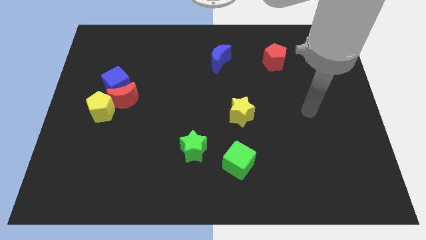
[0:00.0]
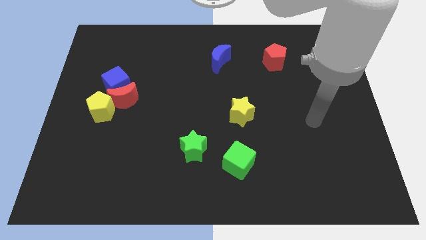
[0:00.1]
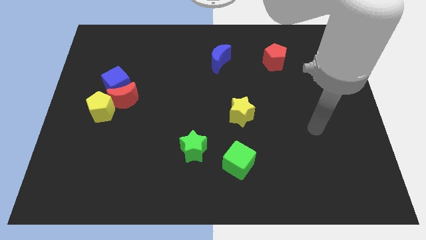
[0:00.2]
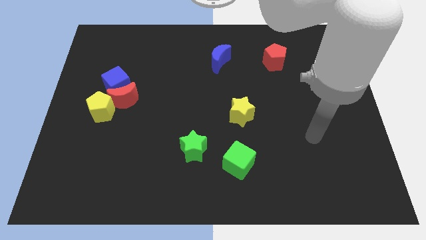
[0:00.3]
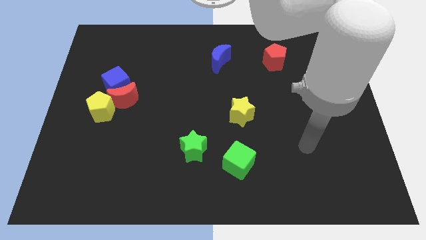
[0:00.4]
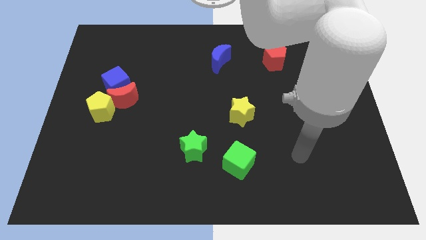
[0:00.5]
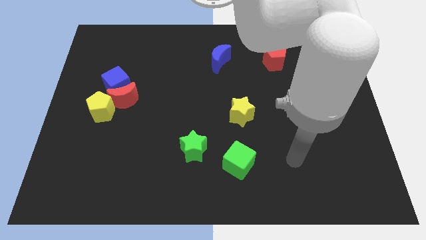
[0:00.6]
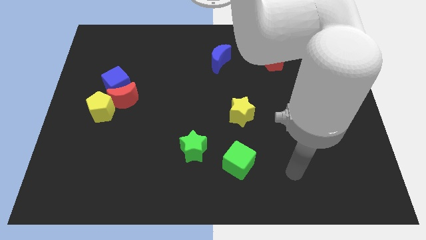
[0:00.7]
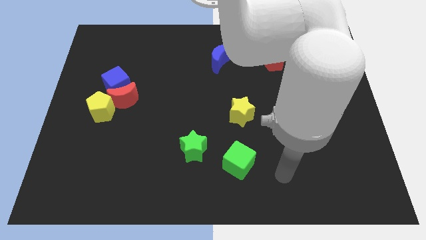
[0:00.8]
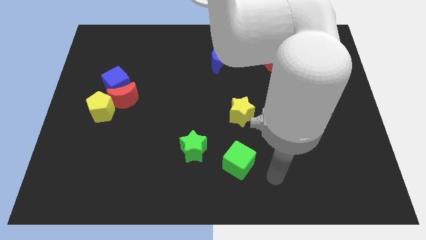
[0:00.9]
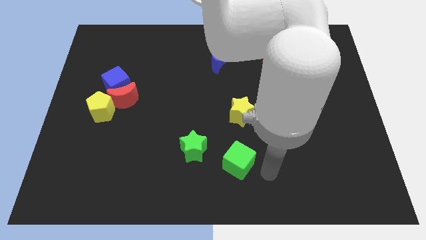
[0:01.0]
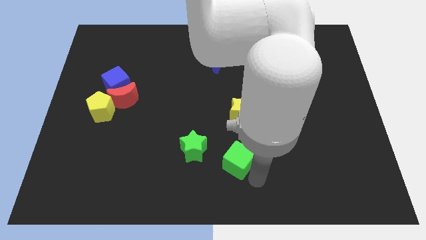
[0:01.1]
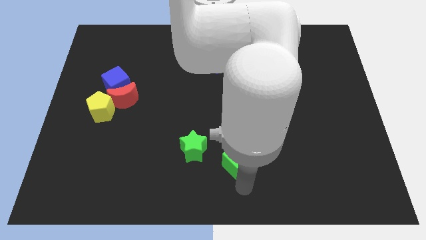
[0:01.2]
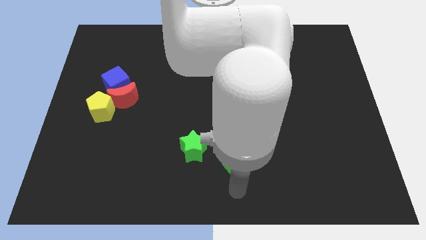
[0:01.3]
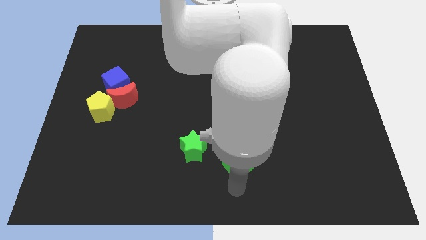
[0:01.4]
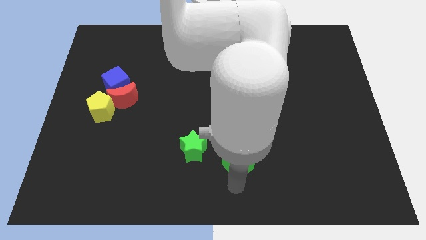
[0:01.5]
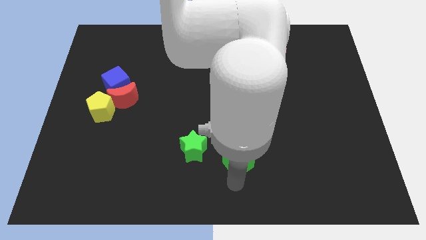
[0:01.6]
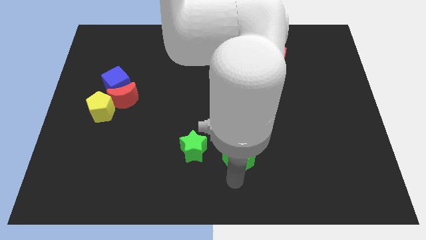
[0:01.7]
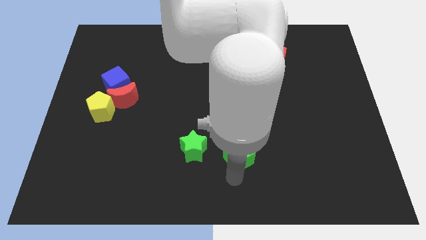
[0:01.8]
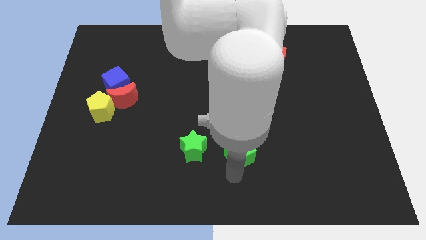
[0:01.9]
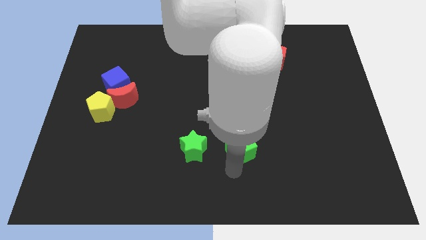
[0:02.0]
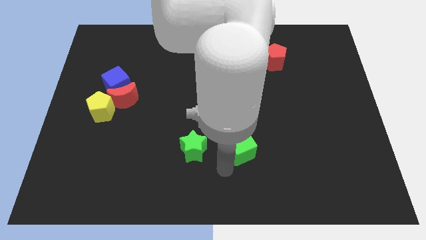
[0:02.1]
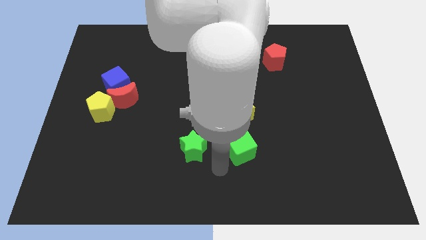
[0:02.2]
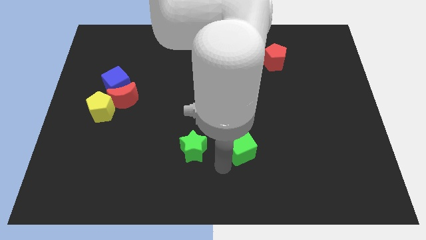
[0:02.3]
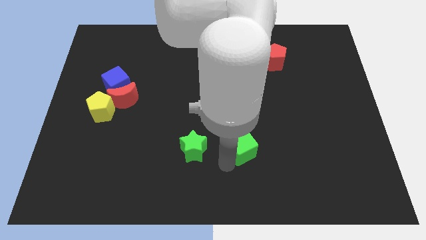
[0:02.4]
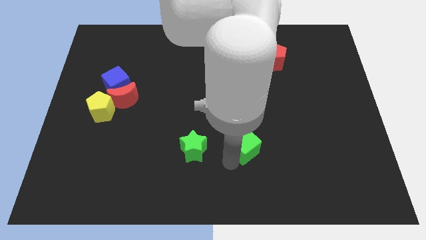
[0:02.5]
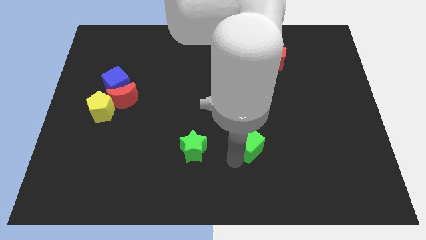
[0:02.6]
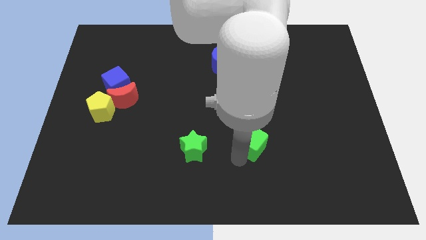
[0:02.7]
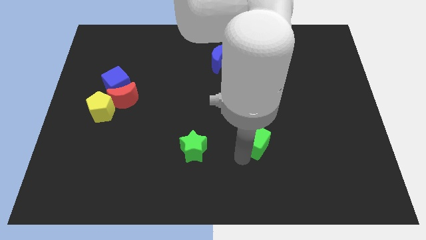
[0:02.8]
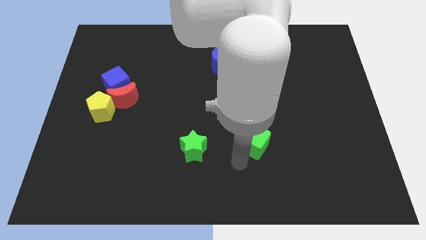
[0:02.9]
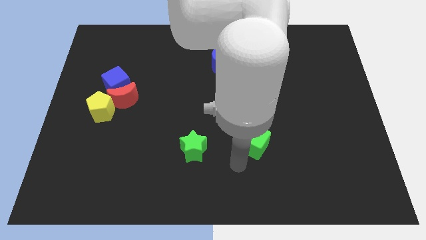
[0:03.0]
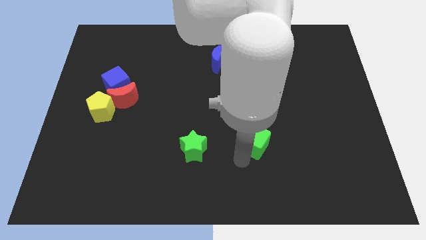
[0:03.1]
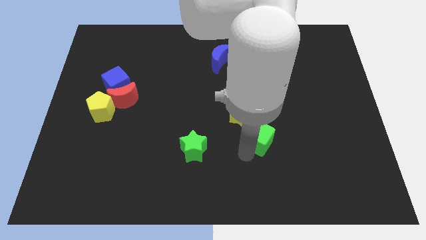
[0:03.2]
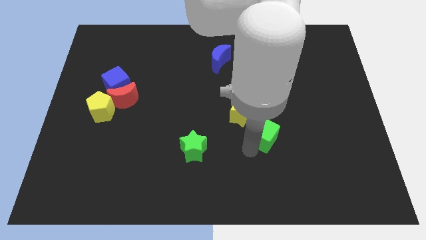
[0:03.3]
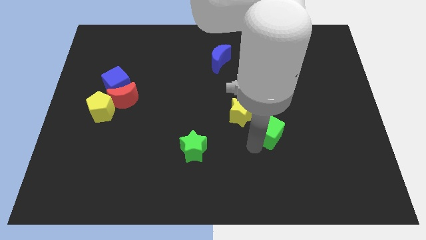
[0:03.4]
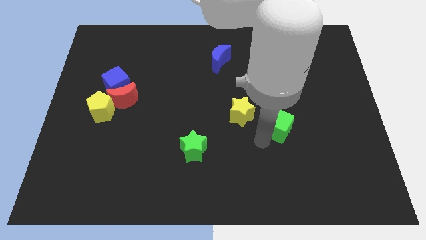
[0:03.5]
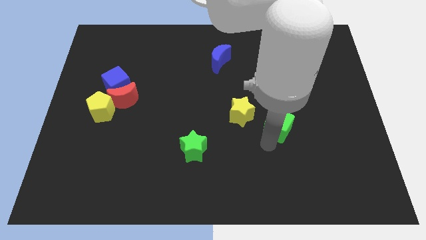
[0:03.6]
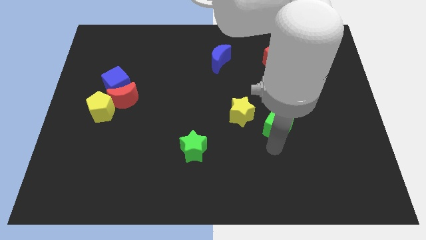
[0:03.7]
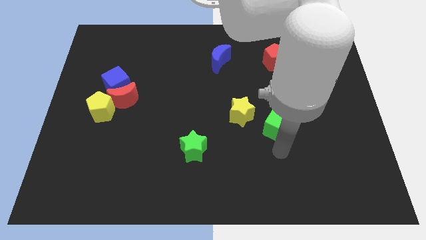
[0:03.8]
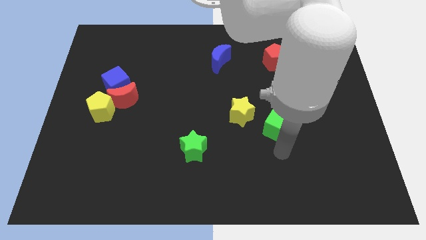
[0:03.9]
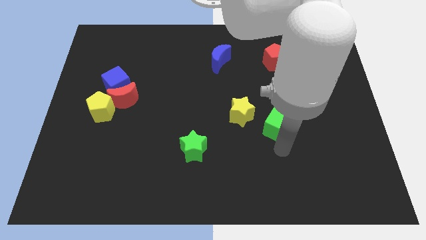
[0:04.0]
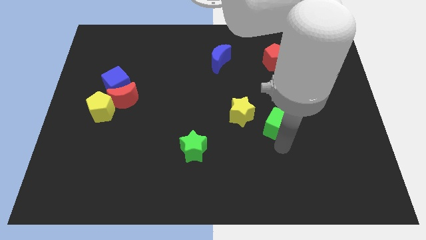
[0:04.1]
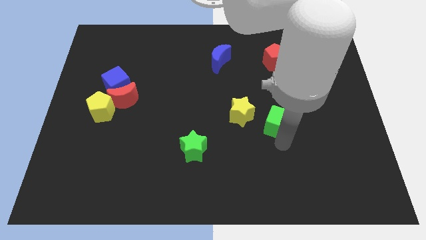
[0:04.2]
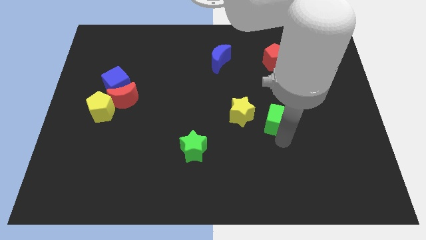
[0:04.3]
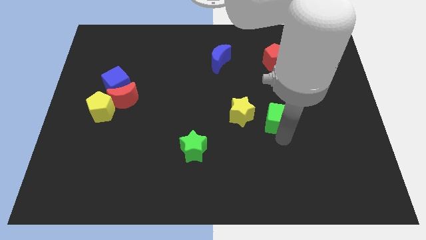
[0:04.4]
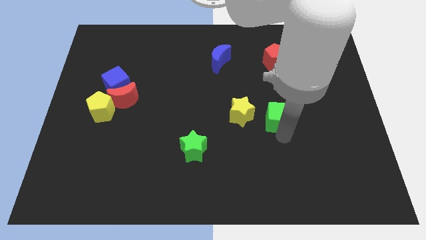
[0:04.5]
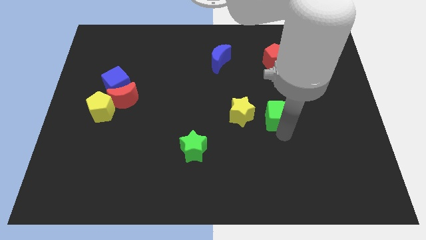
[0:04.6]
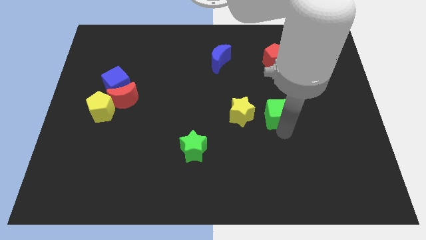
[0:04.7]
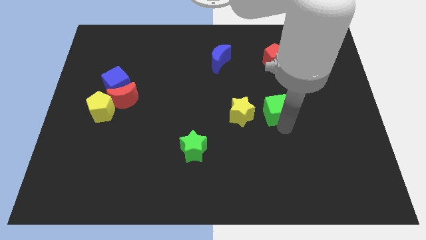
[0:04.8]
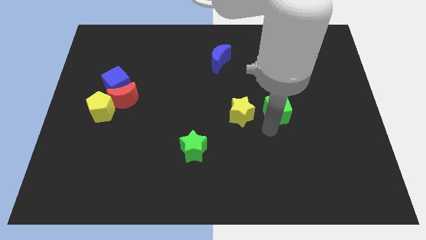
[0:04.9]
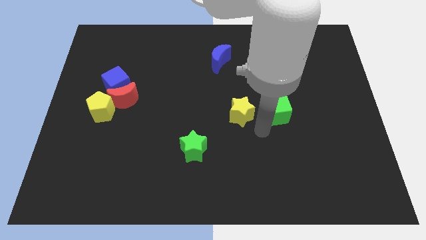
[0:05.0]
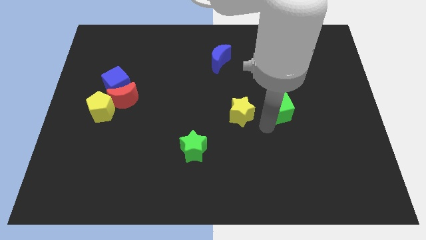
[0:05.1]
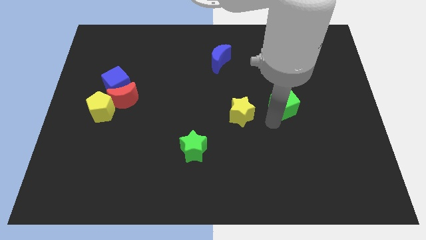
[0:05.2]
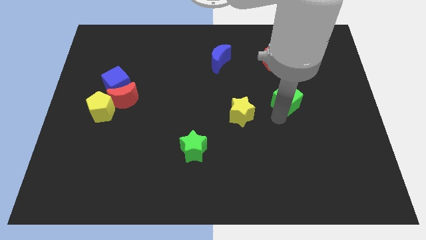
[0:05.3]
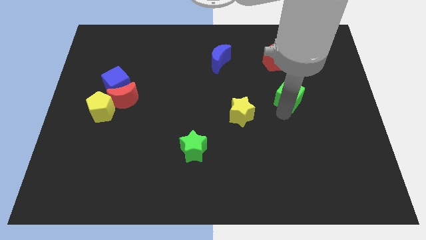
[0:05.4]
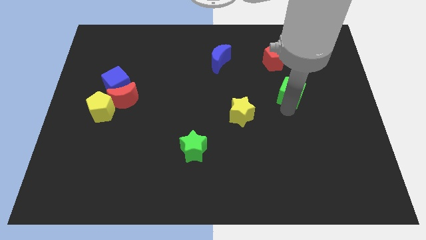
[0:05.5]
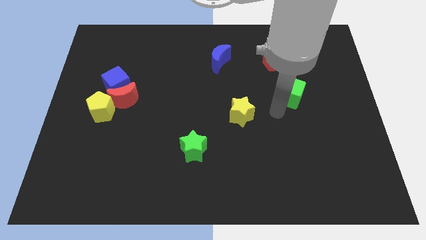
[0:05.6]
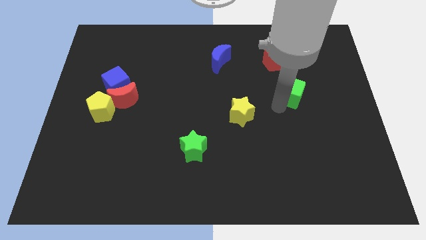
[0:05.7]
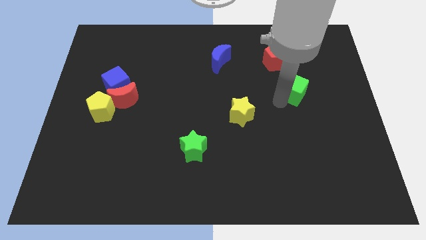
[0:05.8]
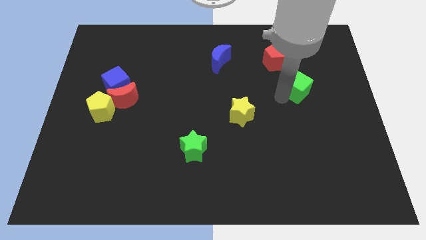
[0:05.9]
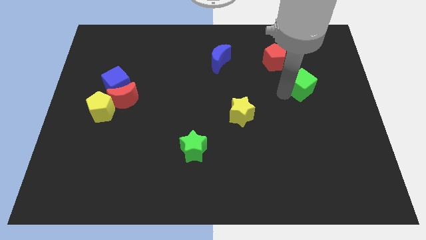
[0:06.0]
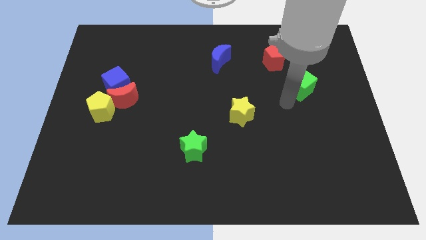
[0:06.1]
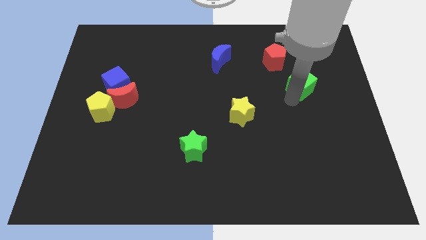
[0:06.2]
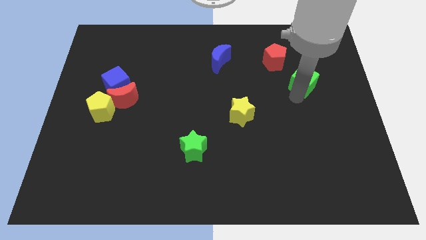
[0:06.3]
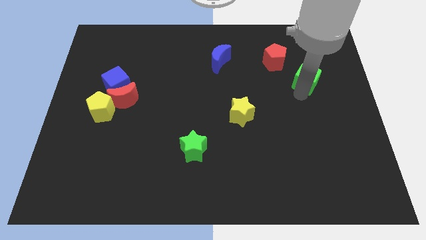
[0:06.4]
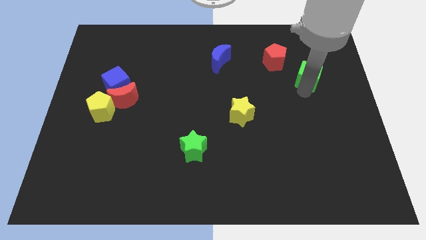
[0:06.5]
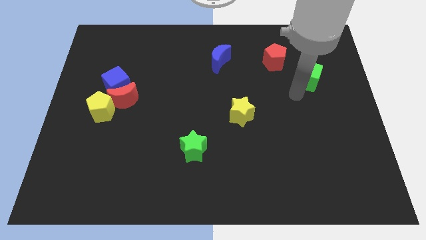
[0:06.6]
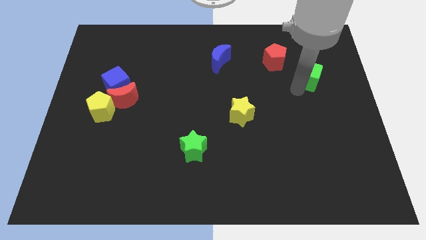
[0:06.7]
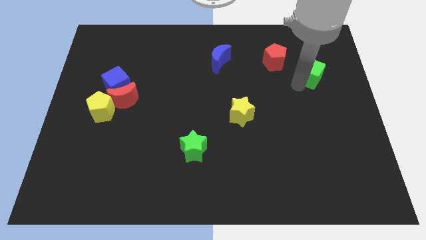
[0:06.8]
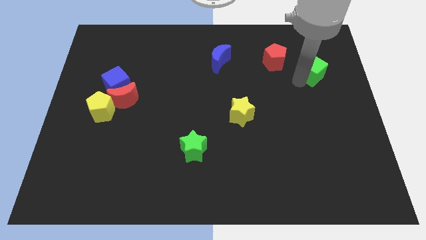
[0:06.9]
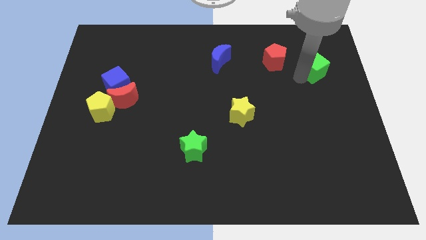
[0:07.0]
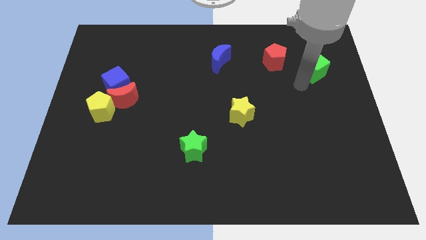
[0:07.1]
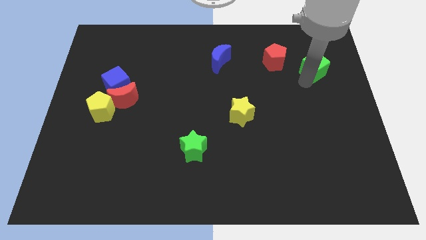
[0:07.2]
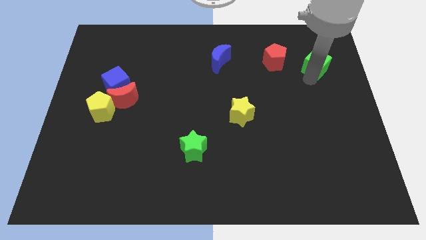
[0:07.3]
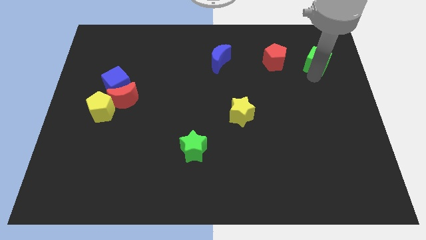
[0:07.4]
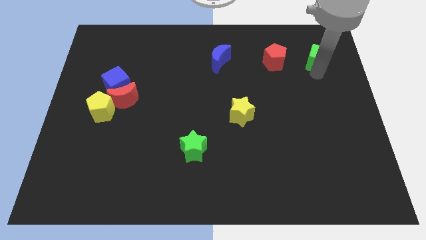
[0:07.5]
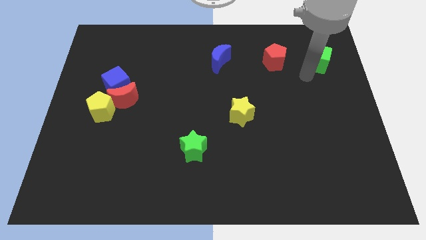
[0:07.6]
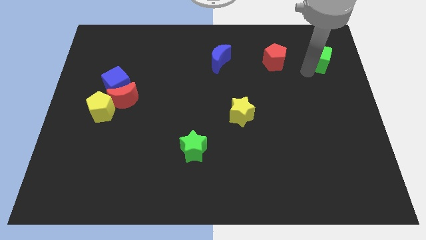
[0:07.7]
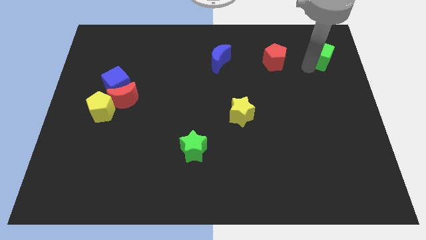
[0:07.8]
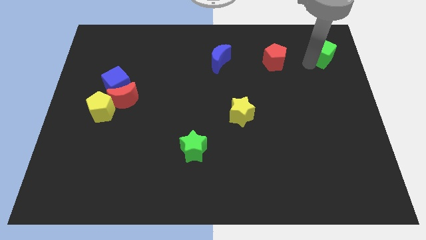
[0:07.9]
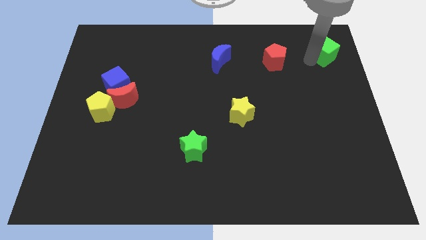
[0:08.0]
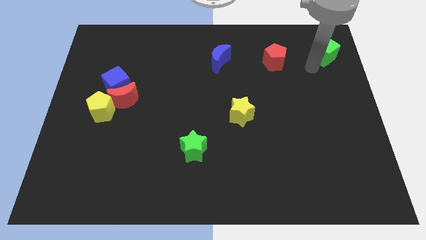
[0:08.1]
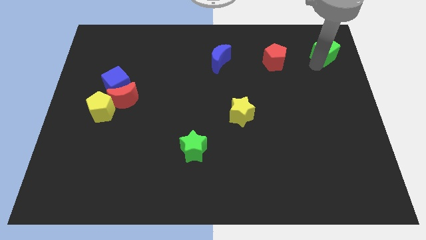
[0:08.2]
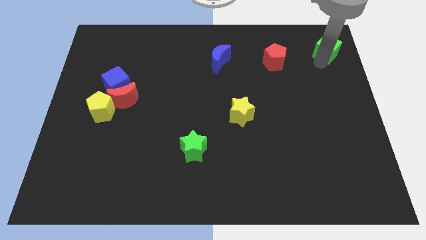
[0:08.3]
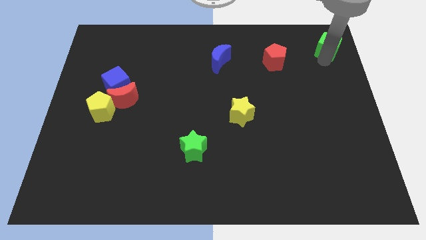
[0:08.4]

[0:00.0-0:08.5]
put the green cube to the top right
